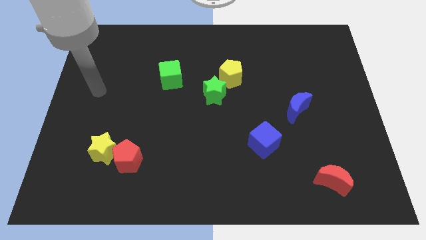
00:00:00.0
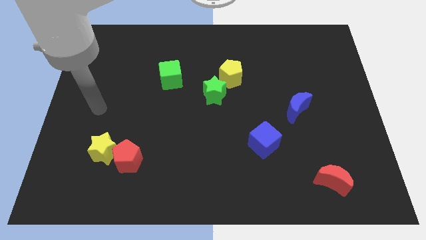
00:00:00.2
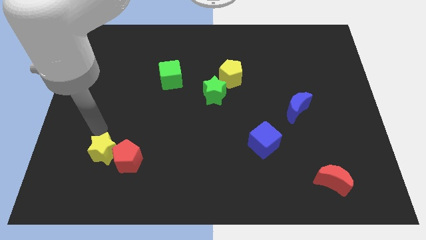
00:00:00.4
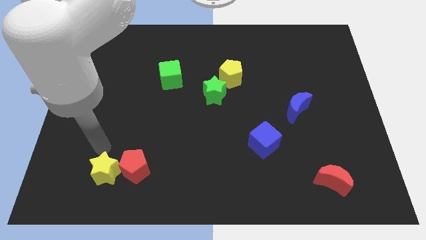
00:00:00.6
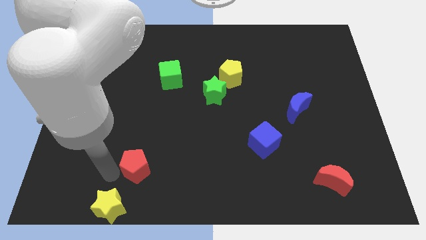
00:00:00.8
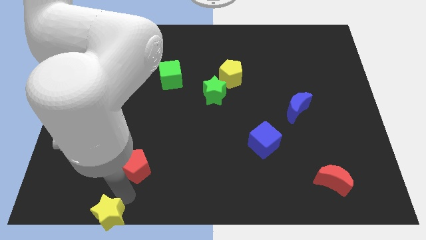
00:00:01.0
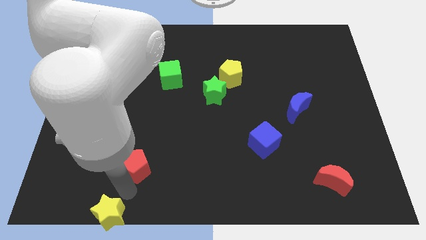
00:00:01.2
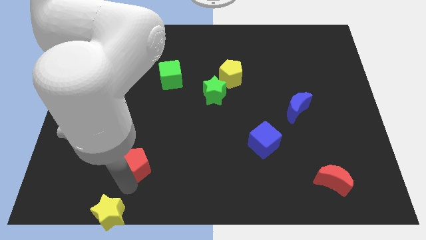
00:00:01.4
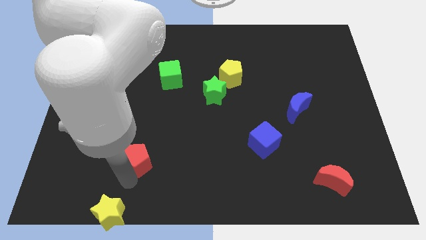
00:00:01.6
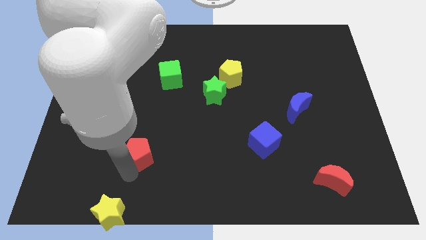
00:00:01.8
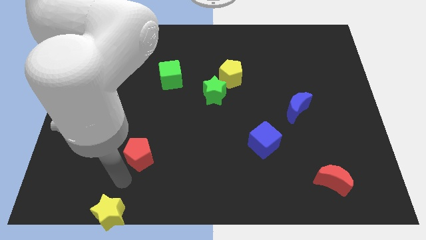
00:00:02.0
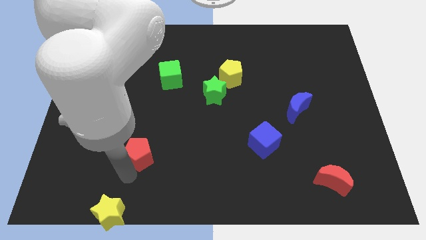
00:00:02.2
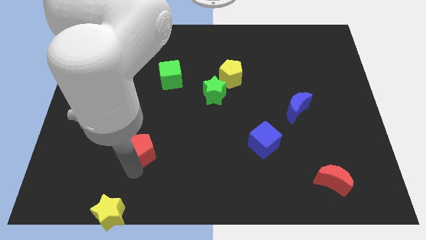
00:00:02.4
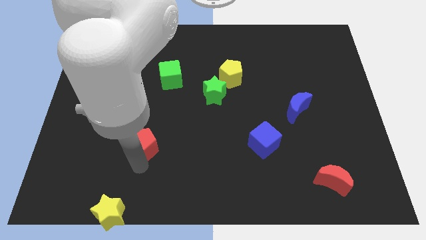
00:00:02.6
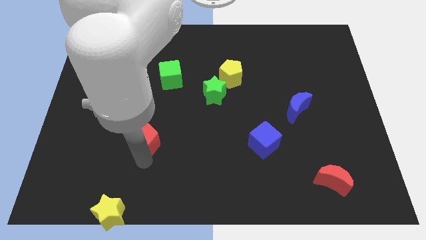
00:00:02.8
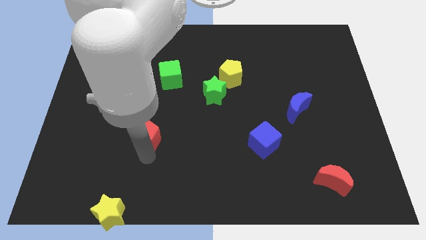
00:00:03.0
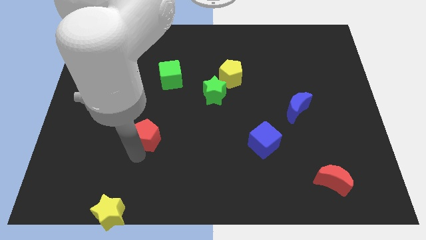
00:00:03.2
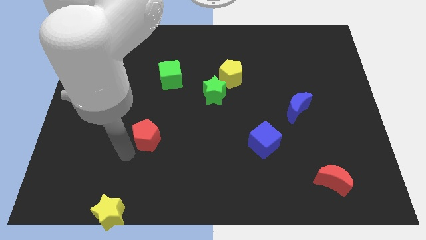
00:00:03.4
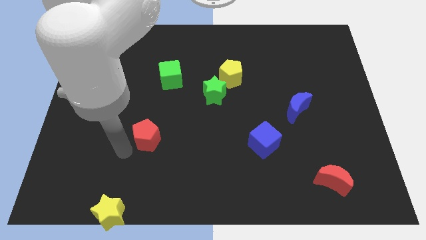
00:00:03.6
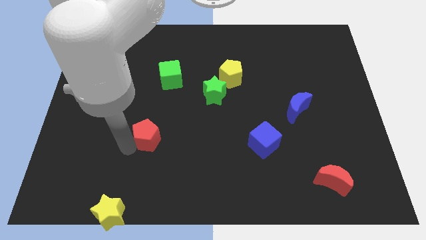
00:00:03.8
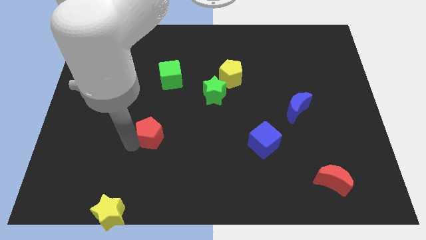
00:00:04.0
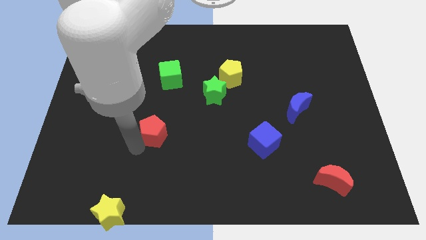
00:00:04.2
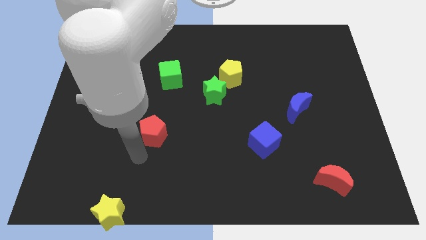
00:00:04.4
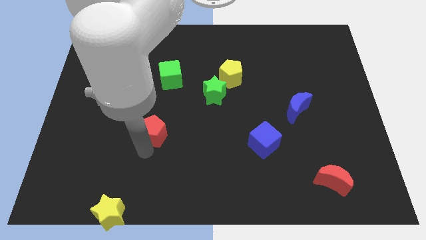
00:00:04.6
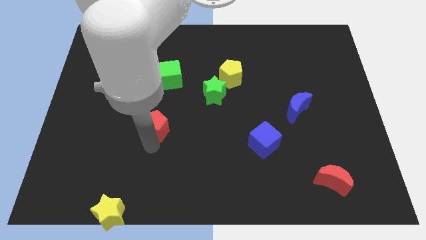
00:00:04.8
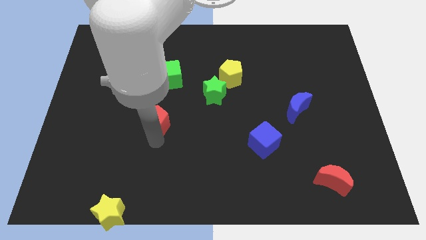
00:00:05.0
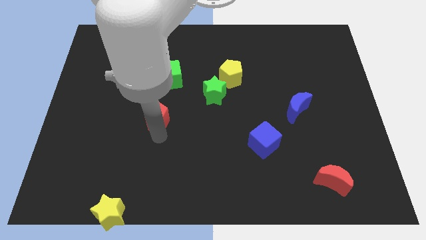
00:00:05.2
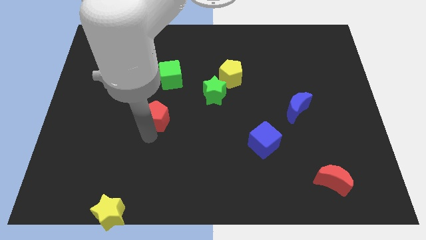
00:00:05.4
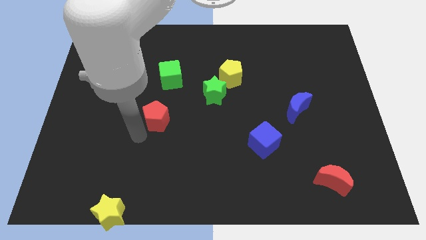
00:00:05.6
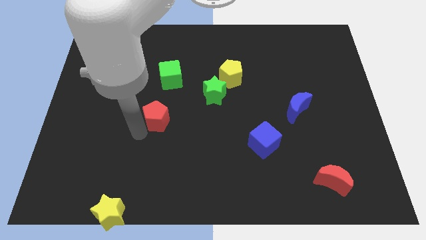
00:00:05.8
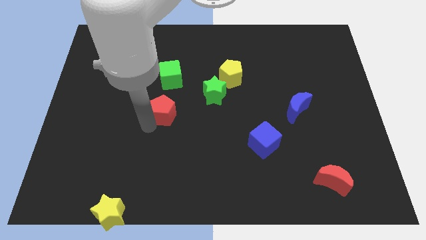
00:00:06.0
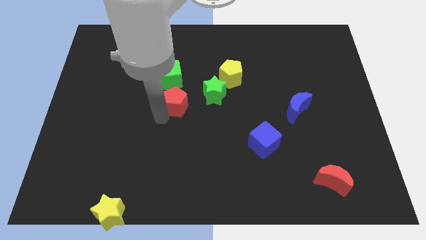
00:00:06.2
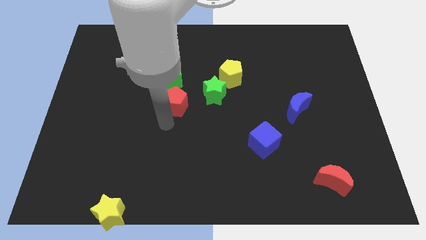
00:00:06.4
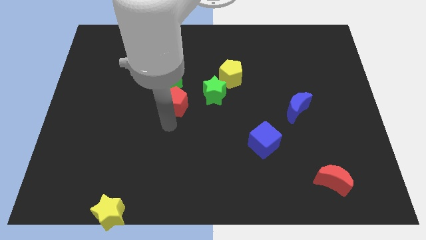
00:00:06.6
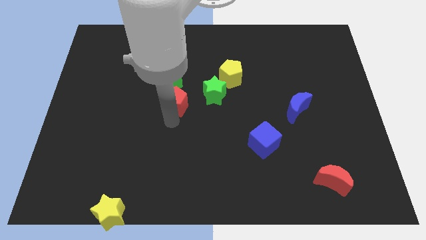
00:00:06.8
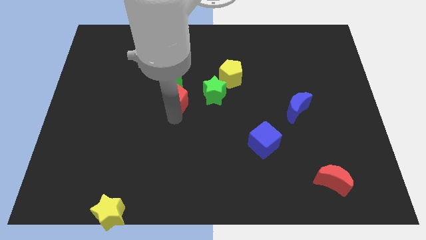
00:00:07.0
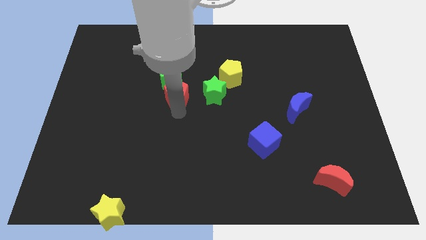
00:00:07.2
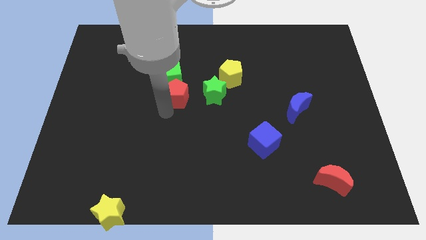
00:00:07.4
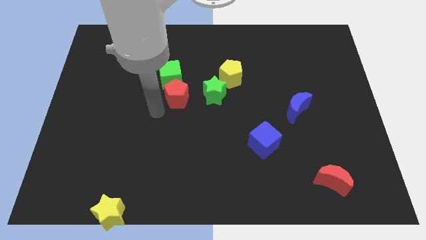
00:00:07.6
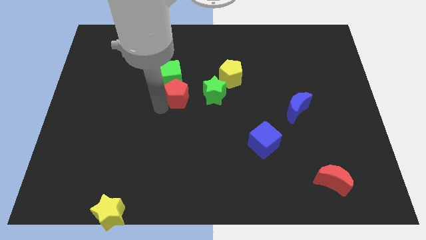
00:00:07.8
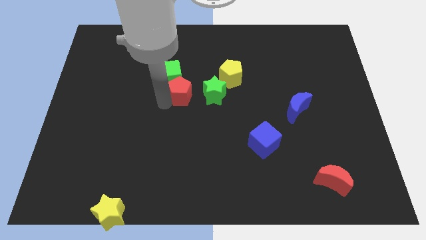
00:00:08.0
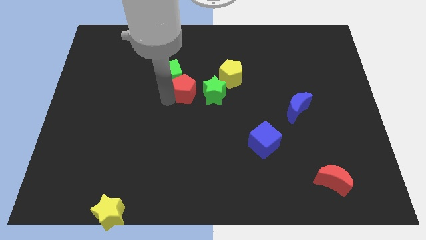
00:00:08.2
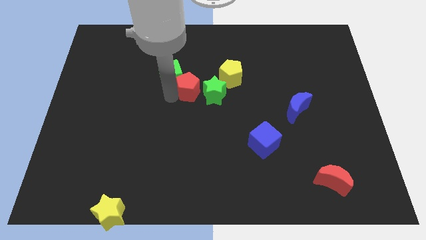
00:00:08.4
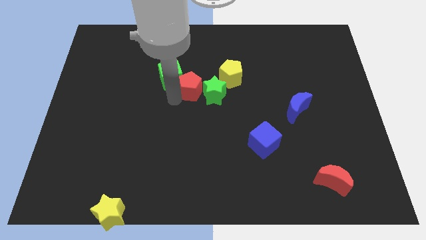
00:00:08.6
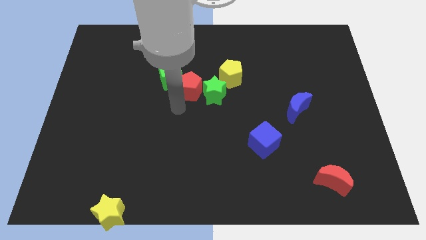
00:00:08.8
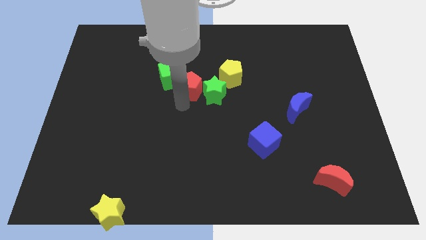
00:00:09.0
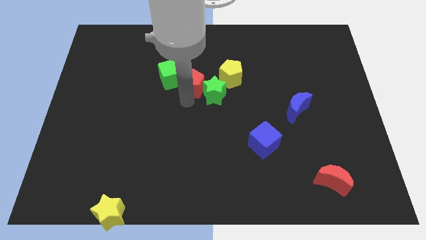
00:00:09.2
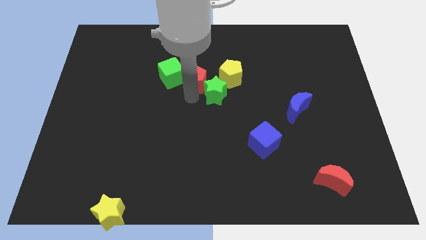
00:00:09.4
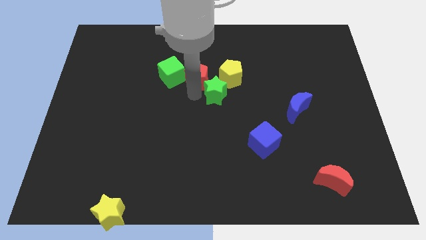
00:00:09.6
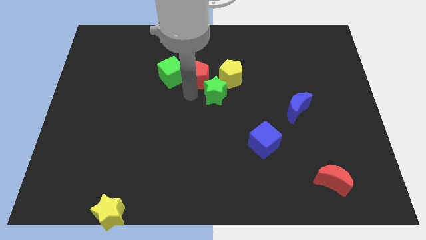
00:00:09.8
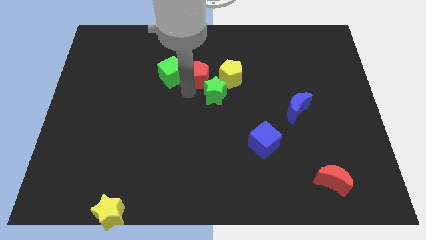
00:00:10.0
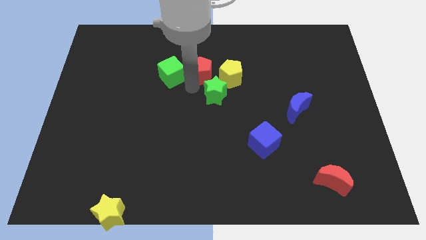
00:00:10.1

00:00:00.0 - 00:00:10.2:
slide the red pentagon to the top left of the yellow pentagon

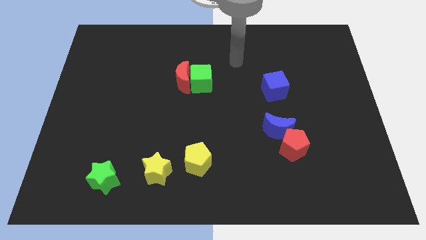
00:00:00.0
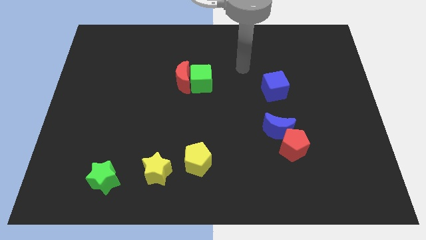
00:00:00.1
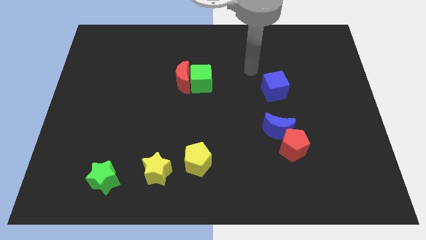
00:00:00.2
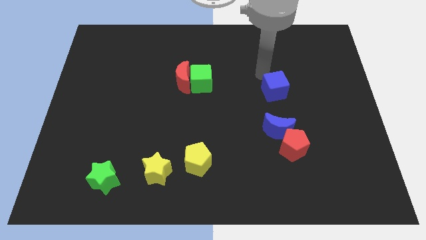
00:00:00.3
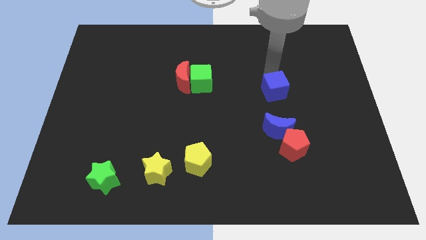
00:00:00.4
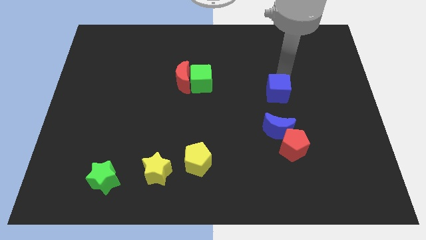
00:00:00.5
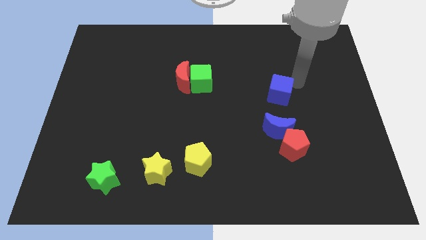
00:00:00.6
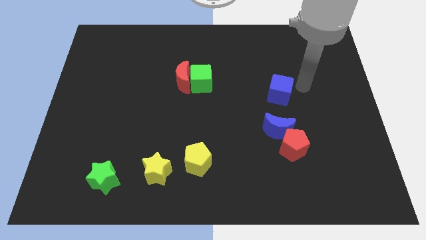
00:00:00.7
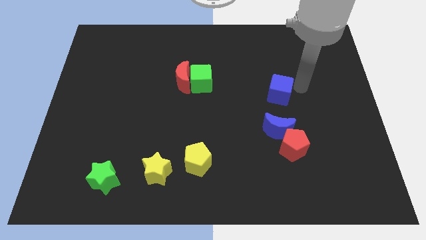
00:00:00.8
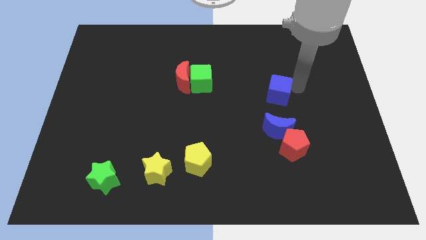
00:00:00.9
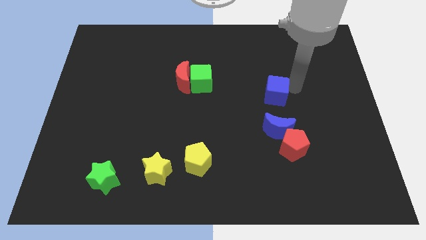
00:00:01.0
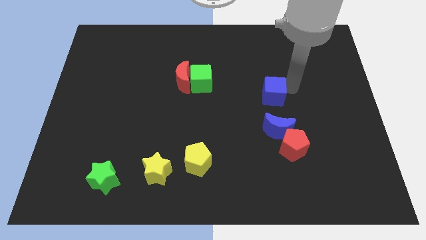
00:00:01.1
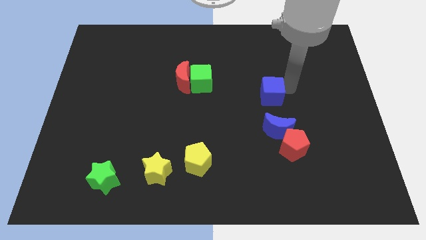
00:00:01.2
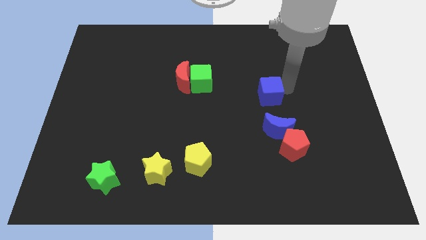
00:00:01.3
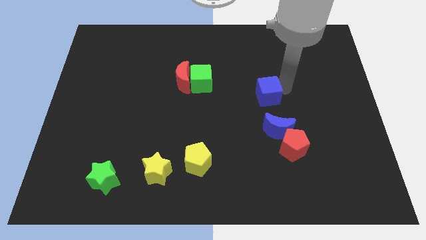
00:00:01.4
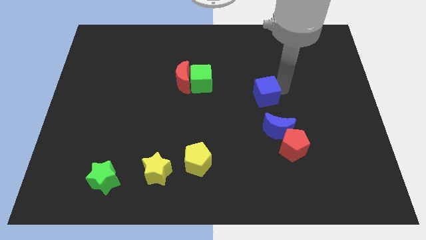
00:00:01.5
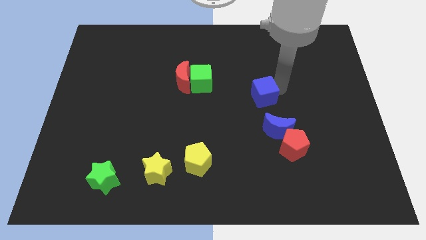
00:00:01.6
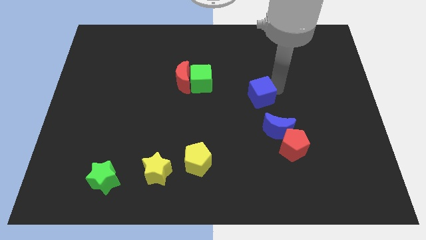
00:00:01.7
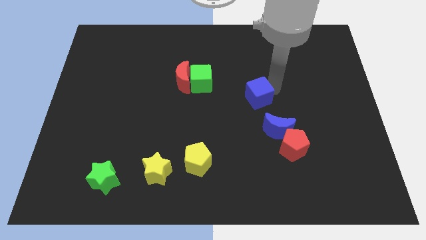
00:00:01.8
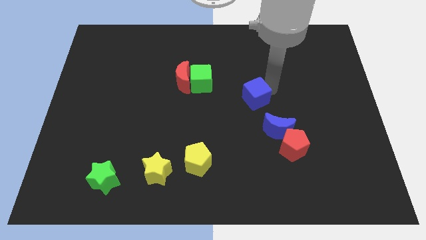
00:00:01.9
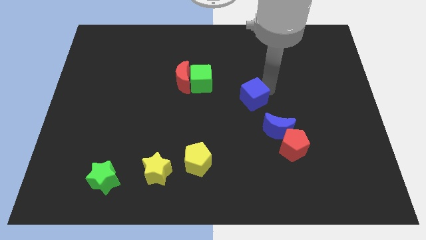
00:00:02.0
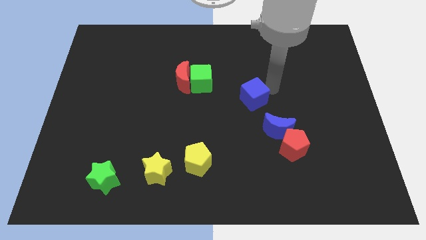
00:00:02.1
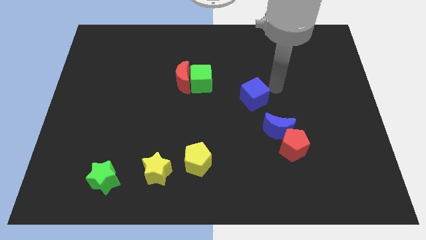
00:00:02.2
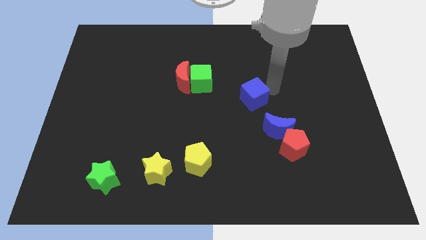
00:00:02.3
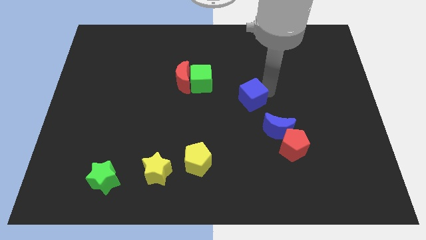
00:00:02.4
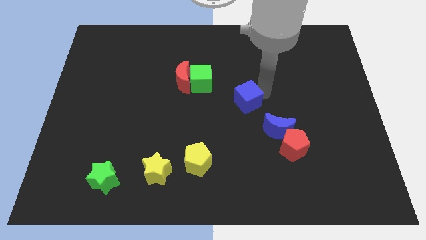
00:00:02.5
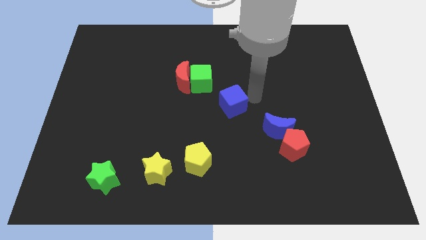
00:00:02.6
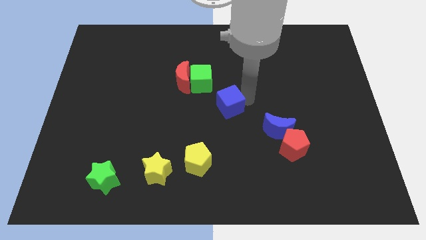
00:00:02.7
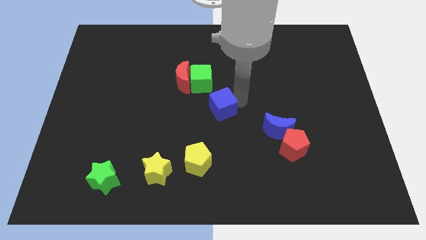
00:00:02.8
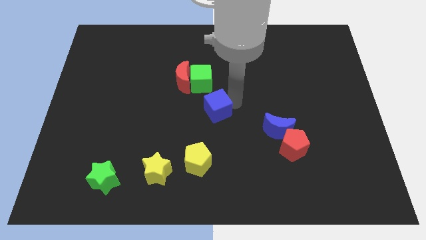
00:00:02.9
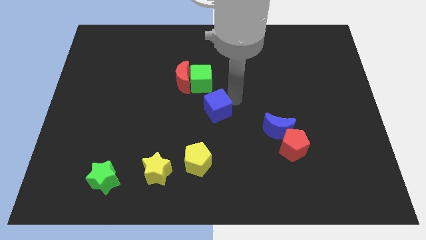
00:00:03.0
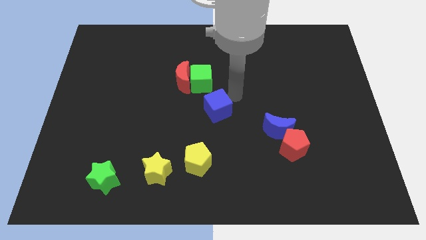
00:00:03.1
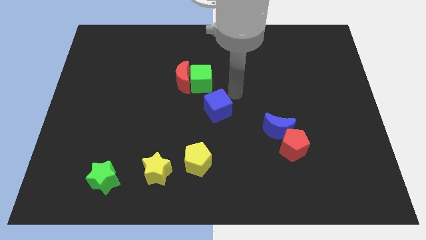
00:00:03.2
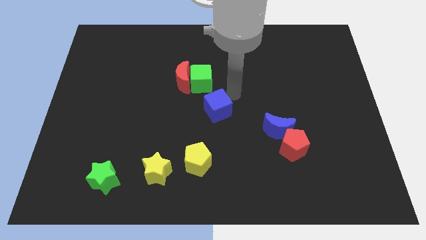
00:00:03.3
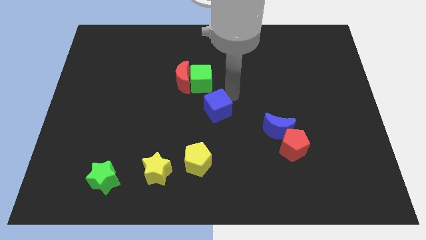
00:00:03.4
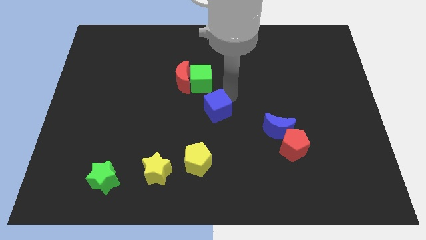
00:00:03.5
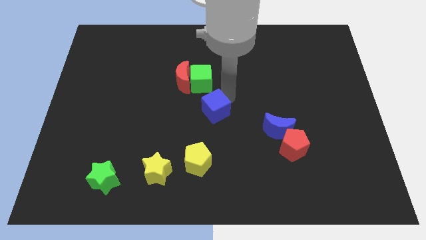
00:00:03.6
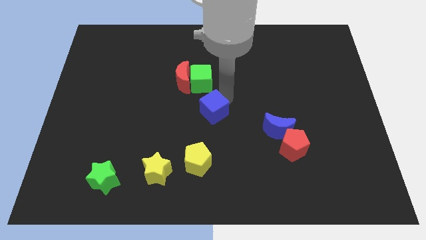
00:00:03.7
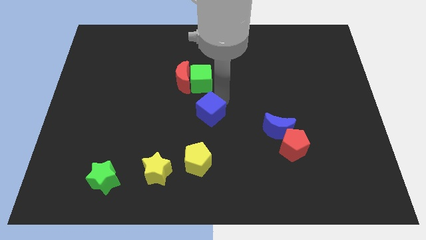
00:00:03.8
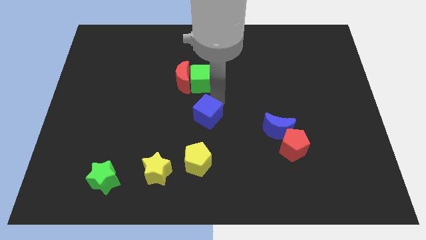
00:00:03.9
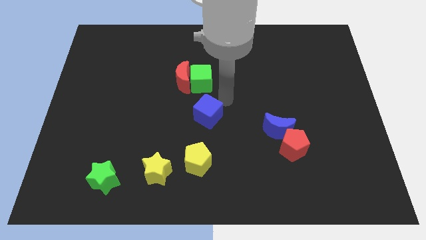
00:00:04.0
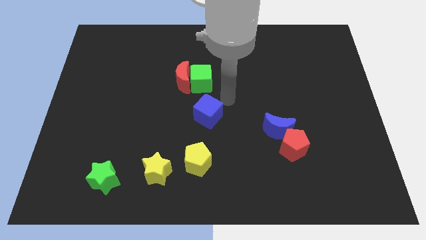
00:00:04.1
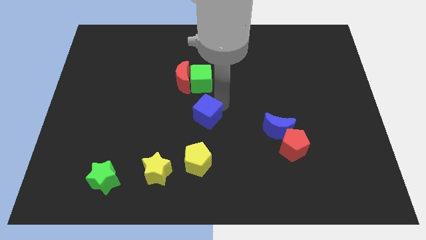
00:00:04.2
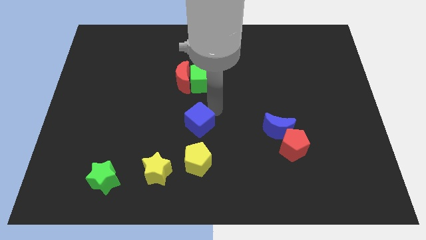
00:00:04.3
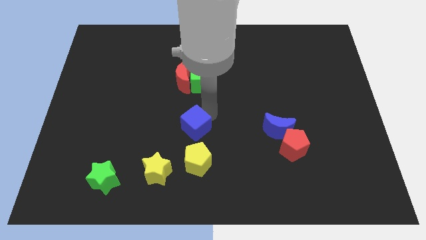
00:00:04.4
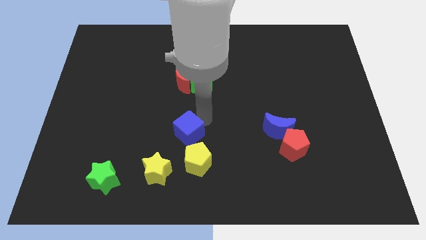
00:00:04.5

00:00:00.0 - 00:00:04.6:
put the blue cube to the top left of the yellow pentagon
